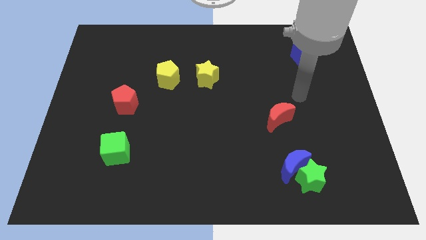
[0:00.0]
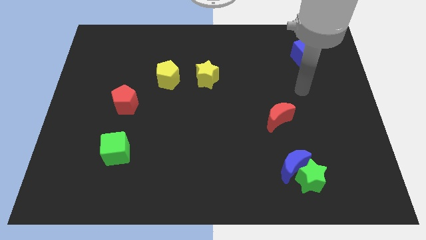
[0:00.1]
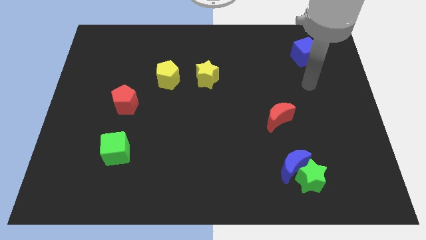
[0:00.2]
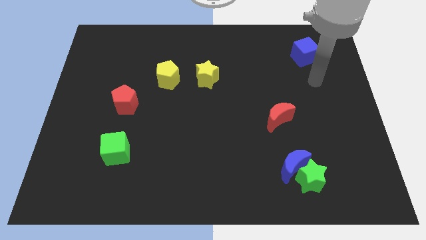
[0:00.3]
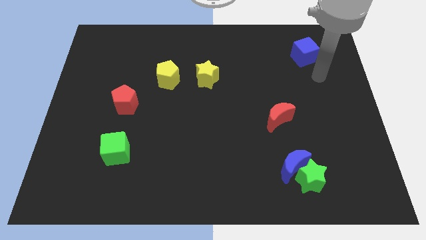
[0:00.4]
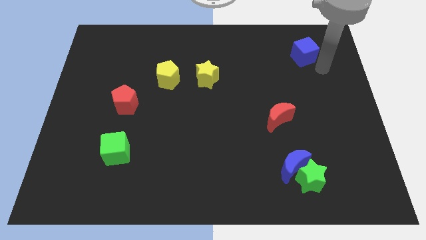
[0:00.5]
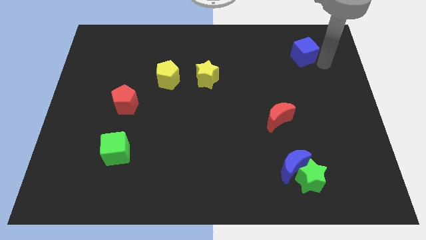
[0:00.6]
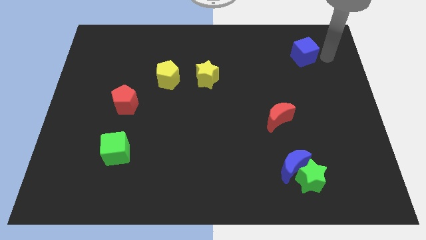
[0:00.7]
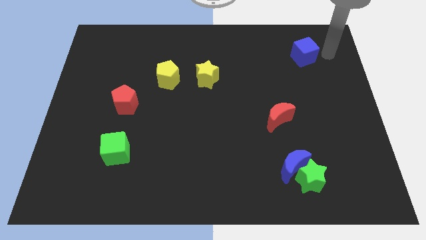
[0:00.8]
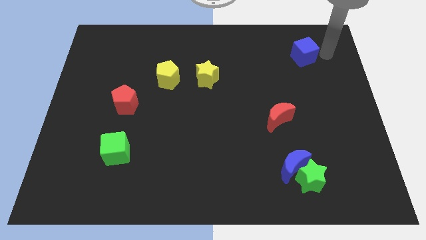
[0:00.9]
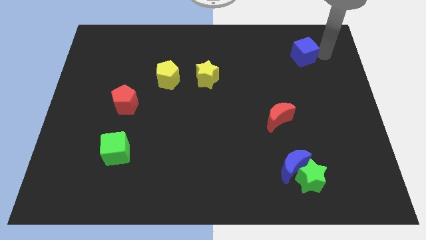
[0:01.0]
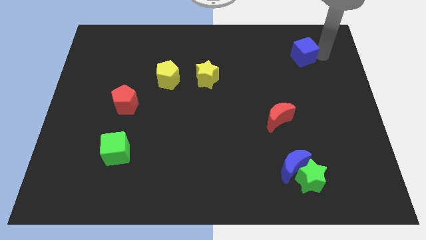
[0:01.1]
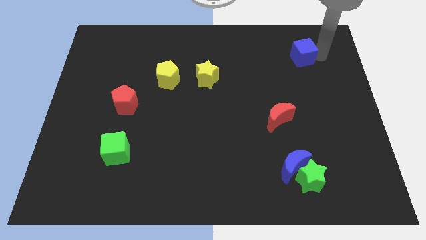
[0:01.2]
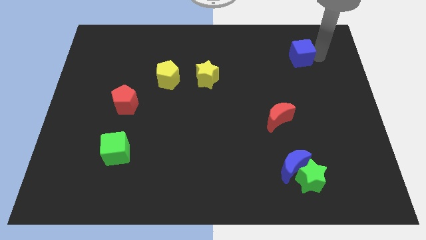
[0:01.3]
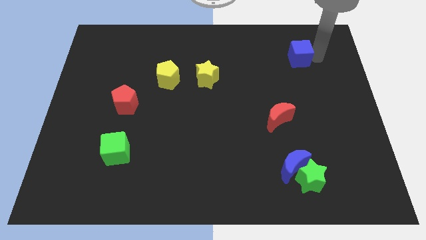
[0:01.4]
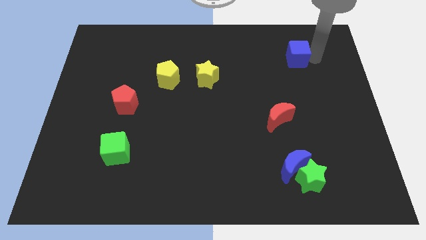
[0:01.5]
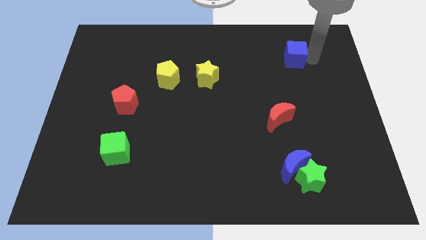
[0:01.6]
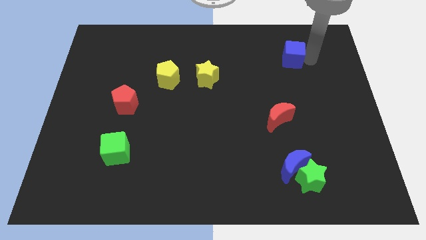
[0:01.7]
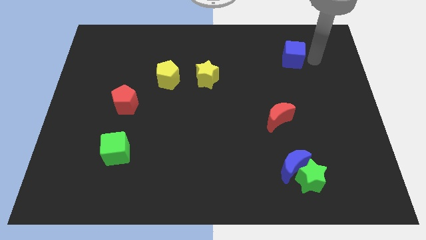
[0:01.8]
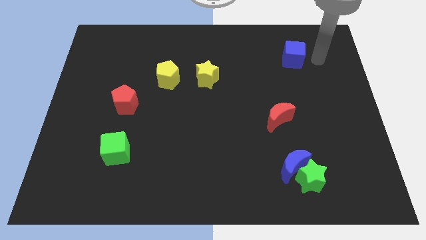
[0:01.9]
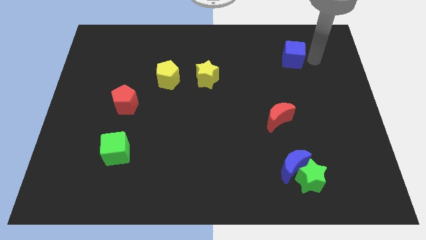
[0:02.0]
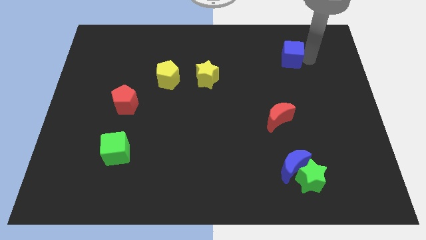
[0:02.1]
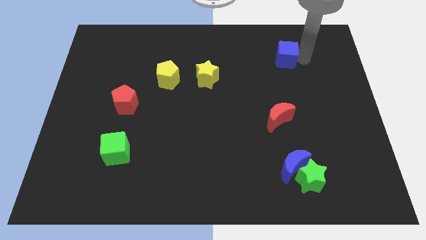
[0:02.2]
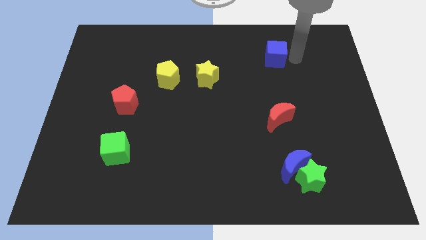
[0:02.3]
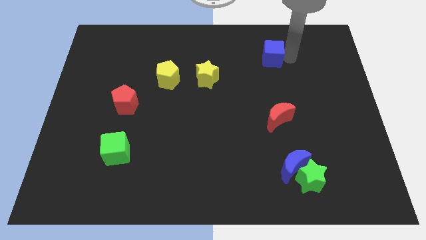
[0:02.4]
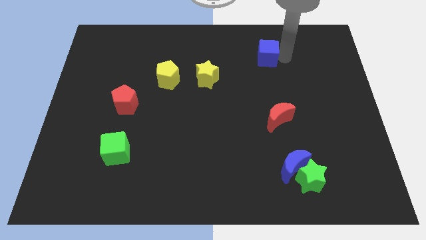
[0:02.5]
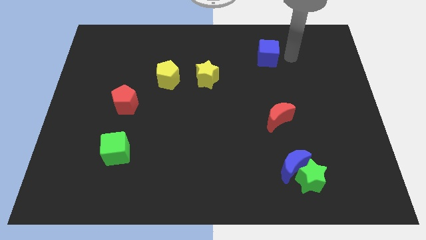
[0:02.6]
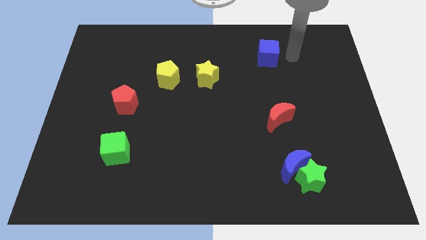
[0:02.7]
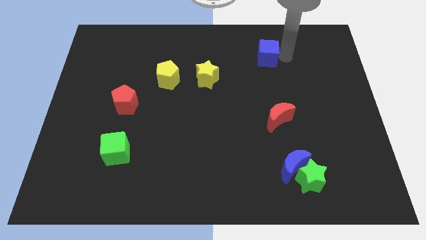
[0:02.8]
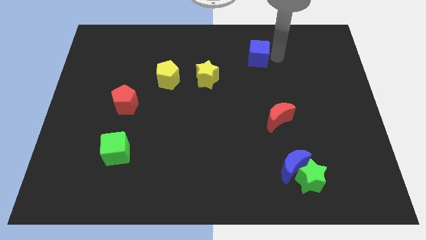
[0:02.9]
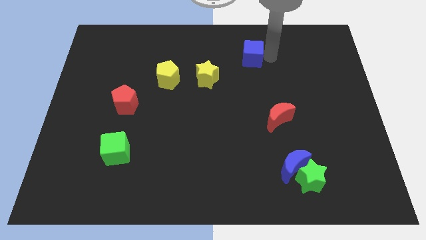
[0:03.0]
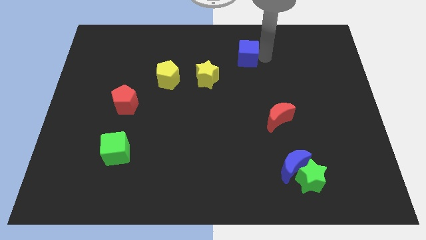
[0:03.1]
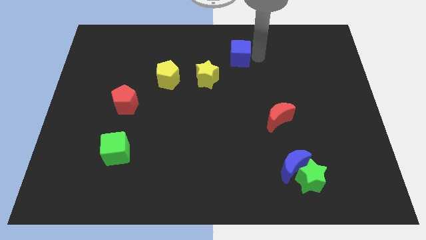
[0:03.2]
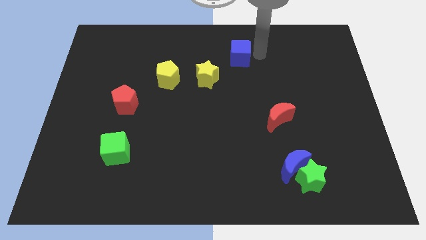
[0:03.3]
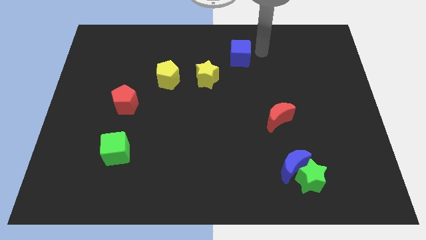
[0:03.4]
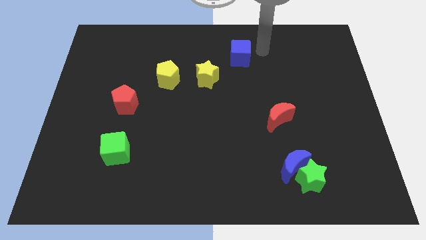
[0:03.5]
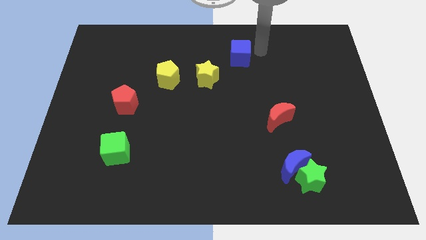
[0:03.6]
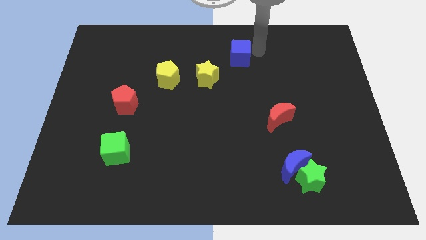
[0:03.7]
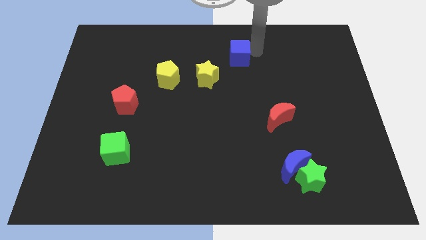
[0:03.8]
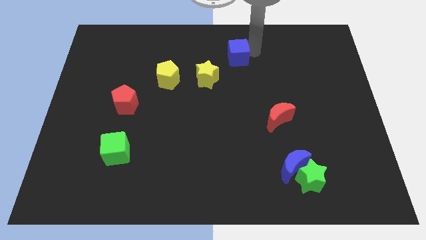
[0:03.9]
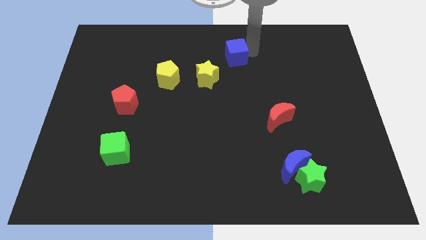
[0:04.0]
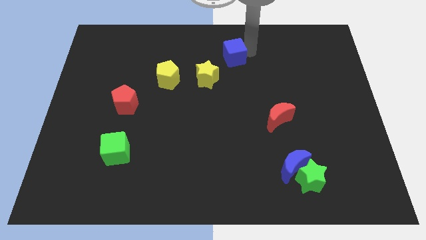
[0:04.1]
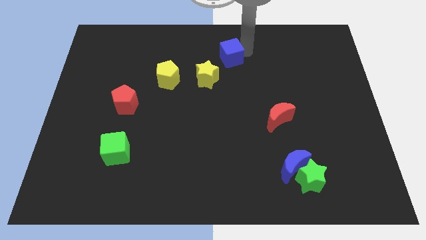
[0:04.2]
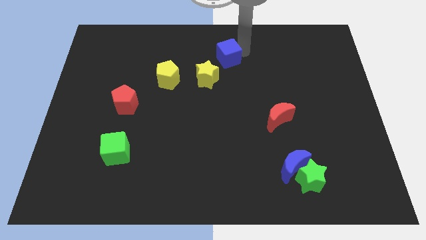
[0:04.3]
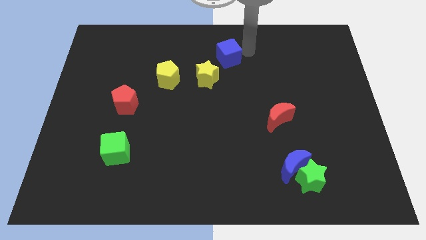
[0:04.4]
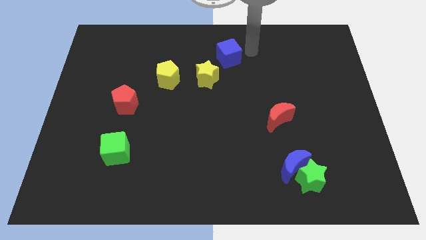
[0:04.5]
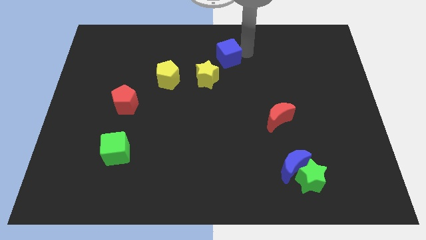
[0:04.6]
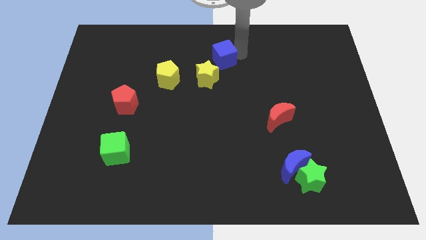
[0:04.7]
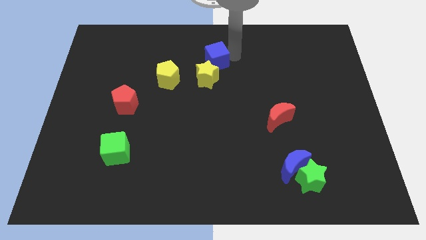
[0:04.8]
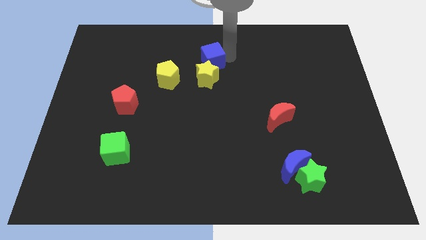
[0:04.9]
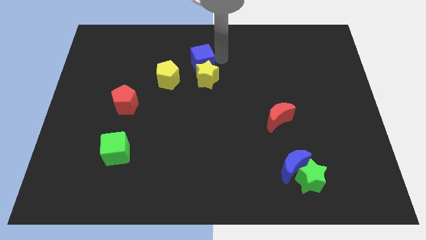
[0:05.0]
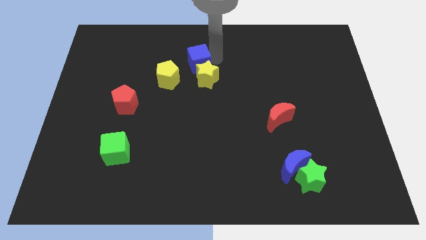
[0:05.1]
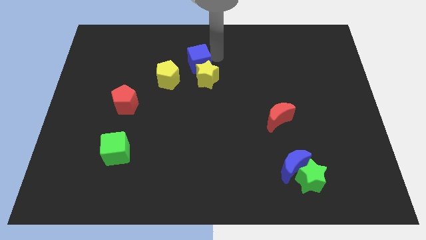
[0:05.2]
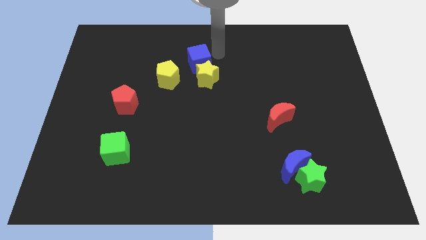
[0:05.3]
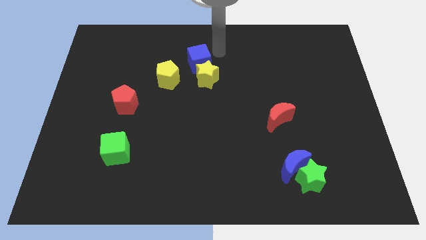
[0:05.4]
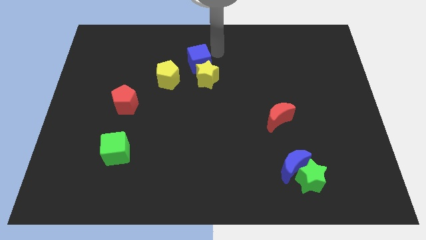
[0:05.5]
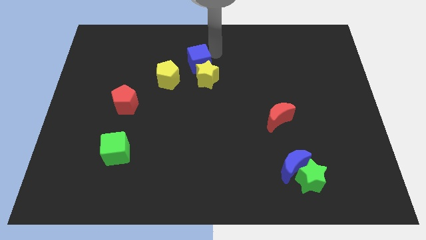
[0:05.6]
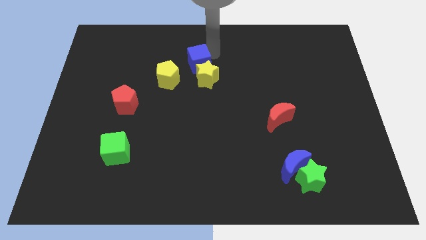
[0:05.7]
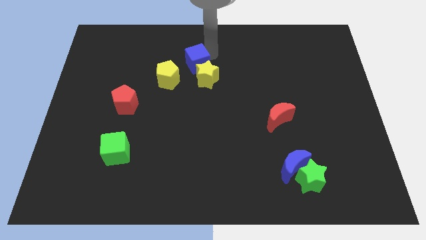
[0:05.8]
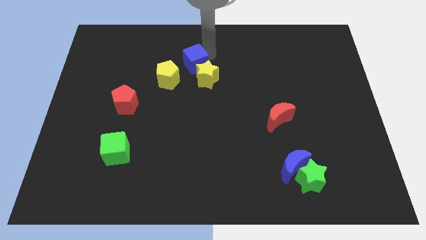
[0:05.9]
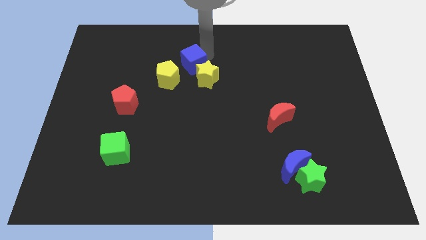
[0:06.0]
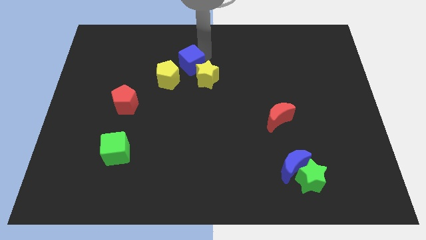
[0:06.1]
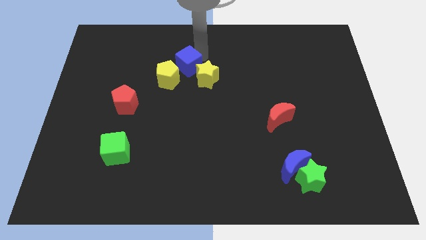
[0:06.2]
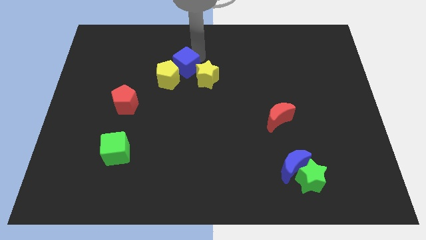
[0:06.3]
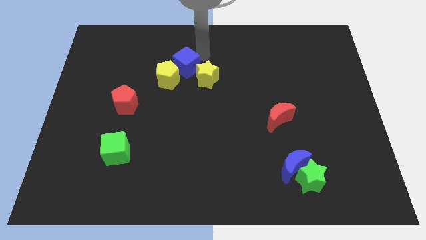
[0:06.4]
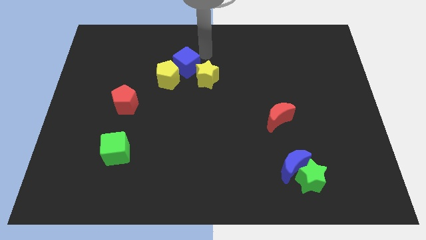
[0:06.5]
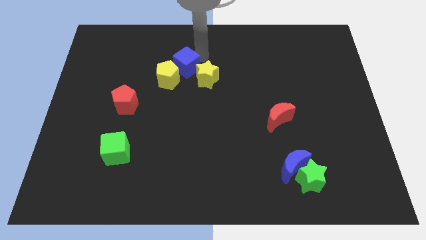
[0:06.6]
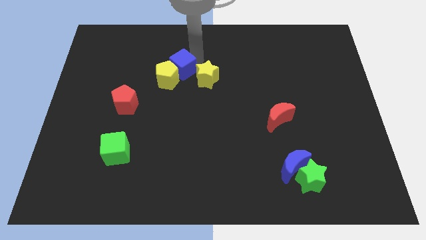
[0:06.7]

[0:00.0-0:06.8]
push the blue cube to the yellow pentagon

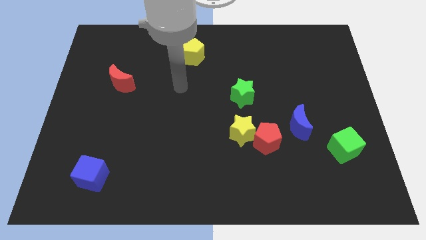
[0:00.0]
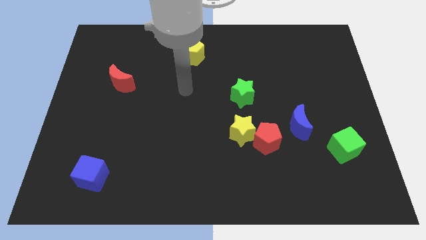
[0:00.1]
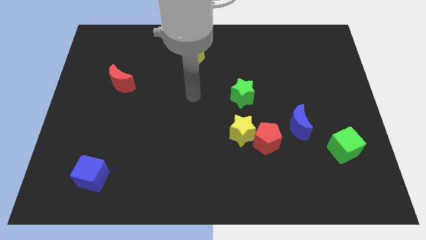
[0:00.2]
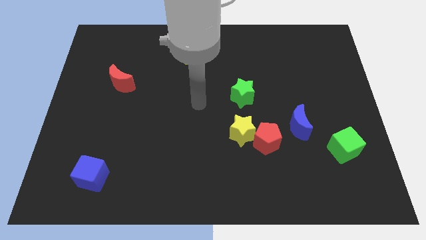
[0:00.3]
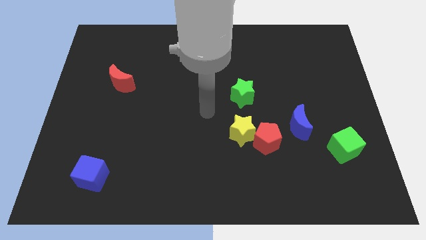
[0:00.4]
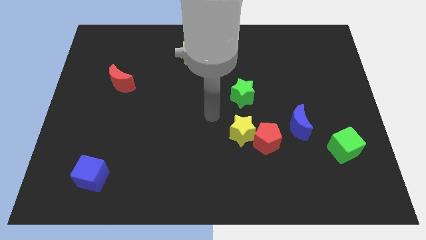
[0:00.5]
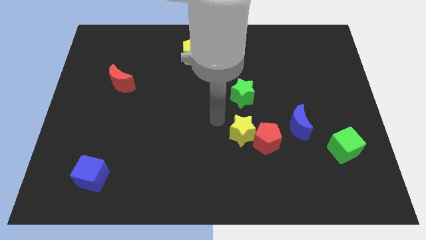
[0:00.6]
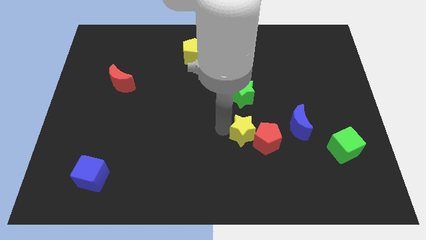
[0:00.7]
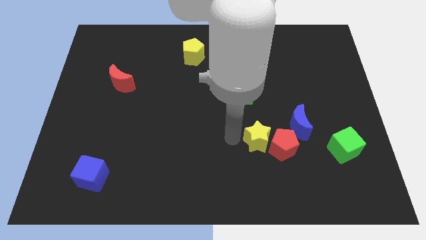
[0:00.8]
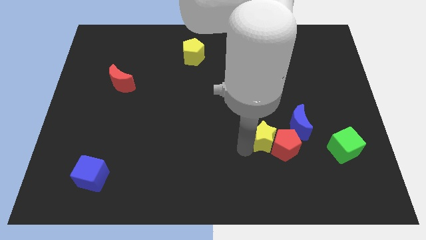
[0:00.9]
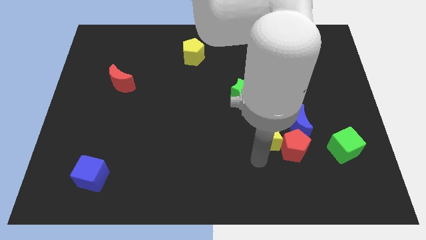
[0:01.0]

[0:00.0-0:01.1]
push the red pentagon close to the blue moon
